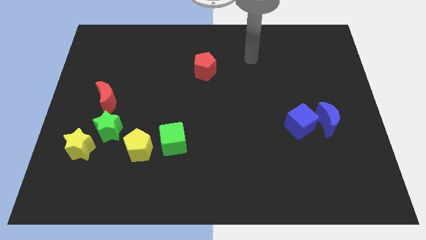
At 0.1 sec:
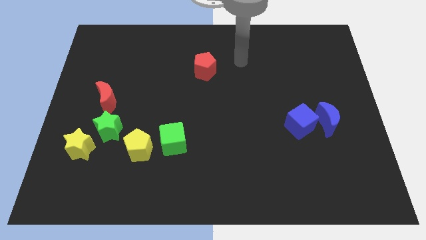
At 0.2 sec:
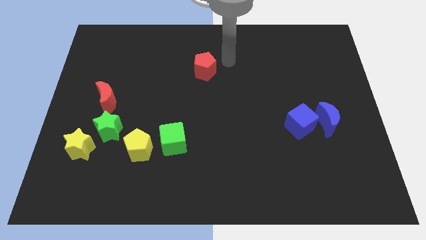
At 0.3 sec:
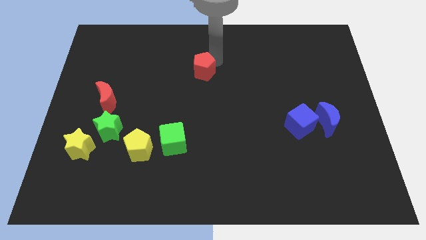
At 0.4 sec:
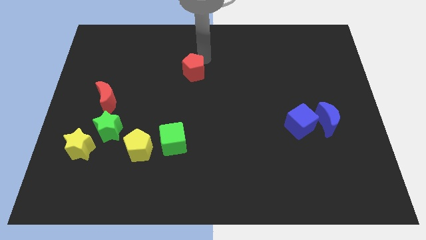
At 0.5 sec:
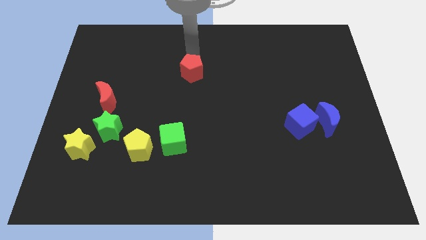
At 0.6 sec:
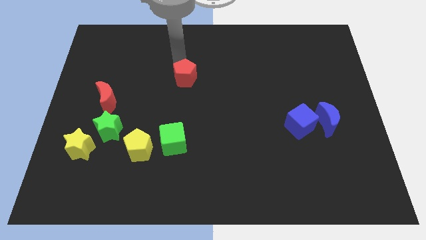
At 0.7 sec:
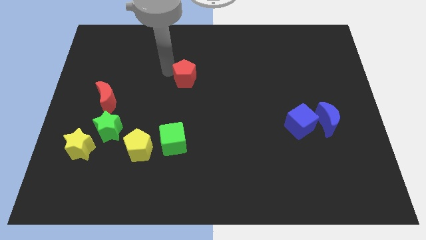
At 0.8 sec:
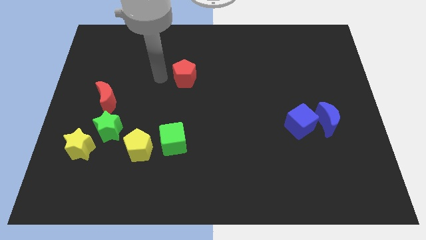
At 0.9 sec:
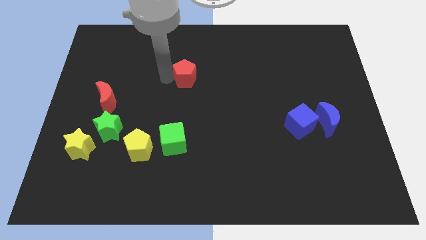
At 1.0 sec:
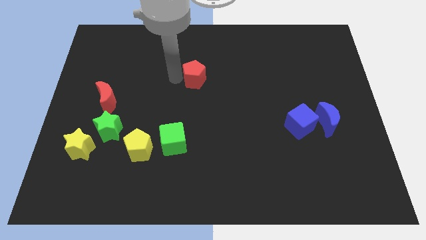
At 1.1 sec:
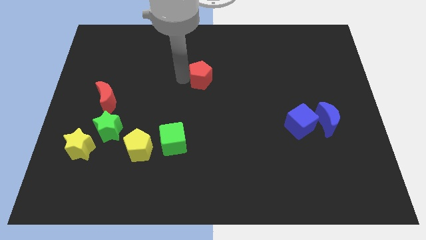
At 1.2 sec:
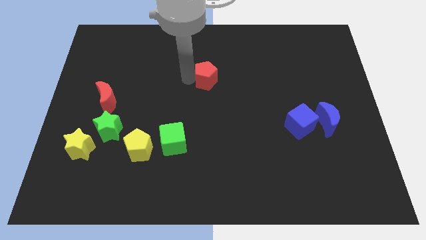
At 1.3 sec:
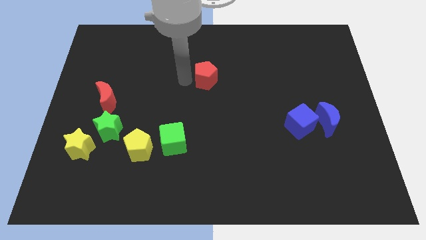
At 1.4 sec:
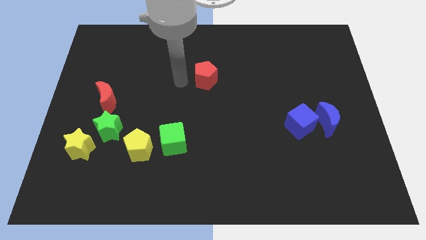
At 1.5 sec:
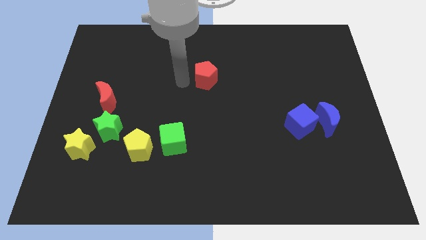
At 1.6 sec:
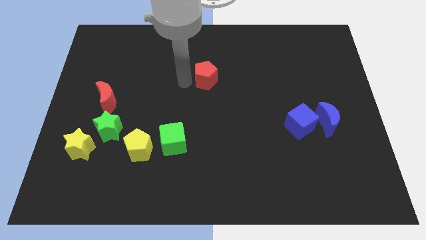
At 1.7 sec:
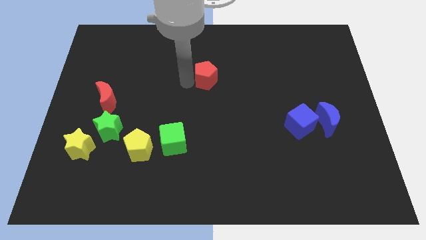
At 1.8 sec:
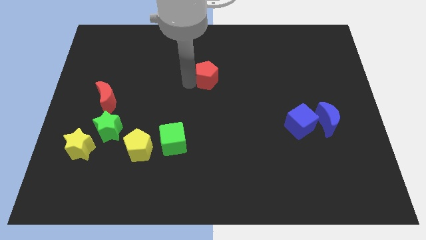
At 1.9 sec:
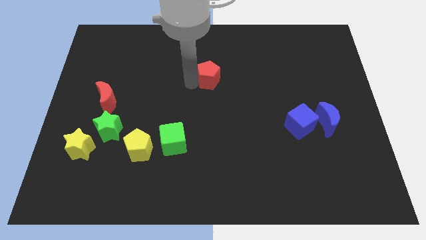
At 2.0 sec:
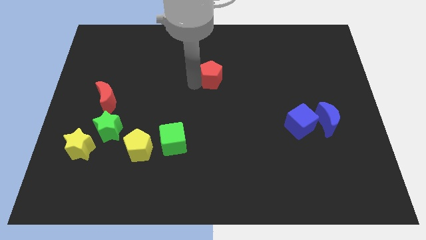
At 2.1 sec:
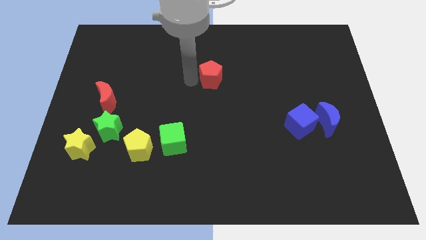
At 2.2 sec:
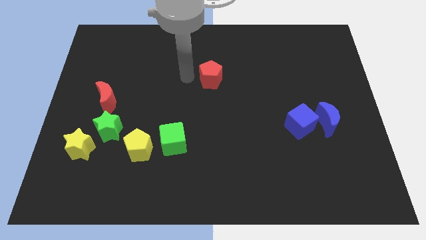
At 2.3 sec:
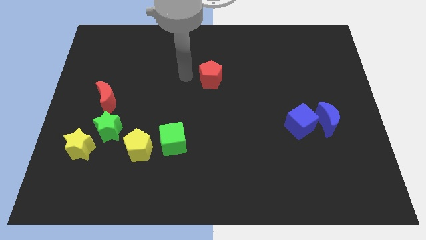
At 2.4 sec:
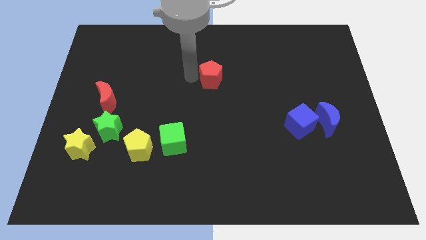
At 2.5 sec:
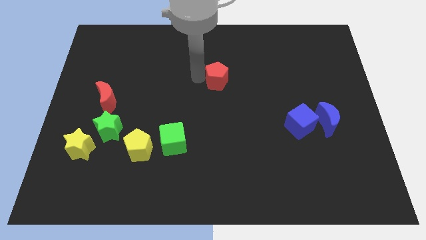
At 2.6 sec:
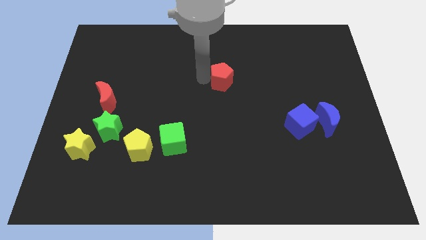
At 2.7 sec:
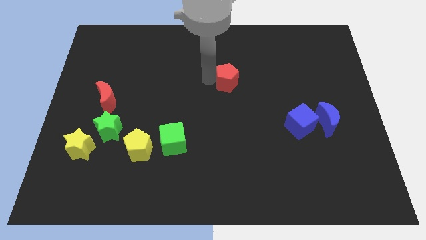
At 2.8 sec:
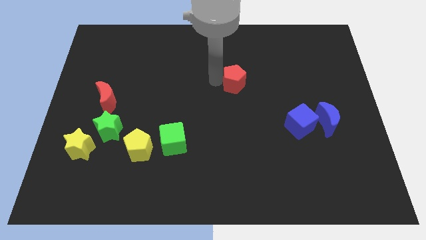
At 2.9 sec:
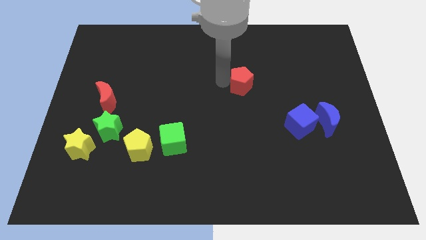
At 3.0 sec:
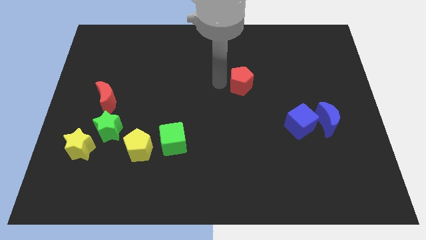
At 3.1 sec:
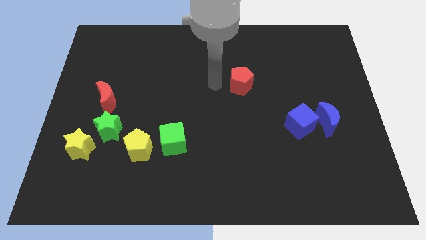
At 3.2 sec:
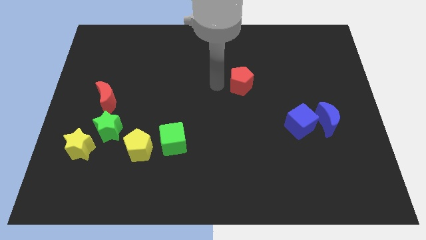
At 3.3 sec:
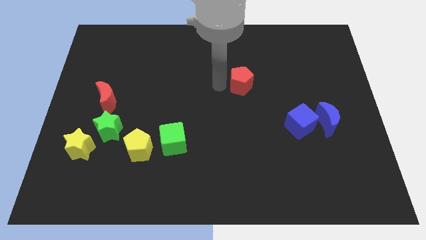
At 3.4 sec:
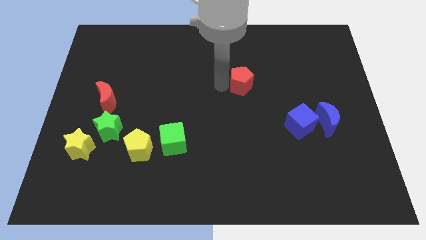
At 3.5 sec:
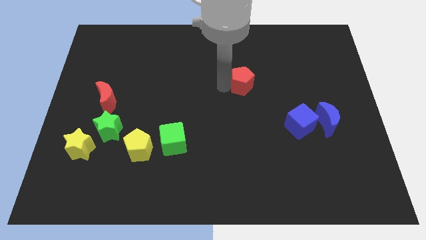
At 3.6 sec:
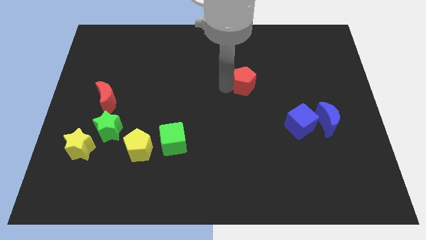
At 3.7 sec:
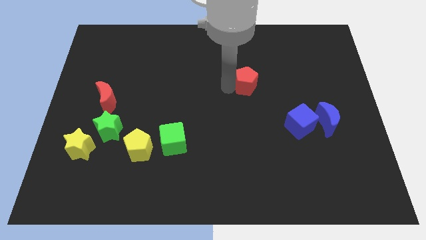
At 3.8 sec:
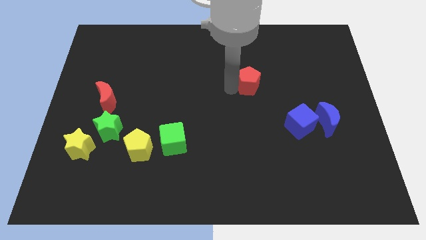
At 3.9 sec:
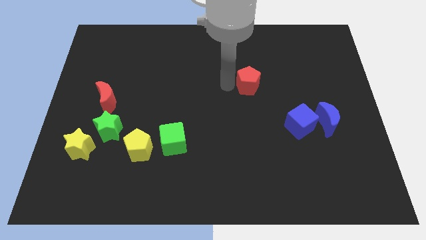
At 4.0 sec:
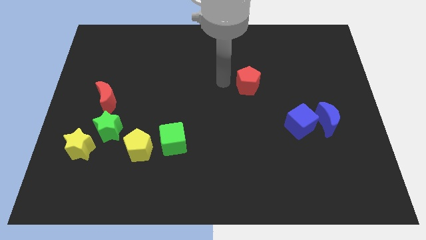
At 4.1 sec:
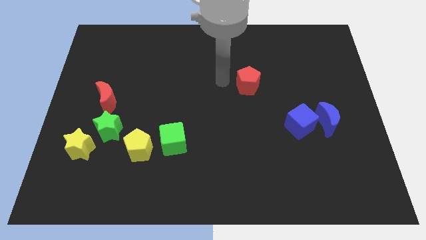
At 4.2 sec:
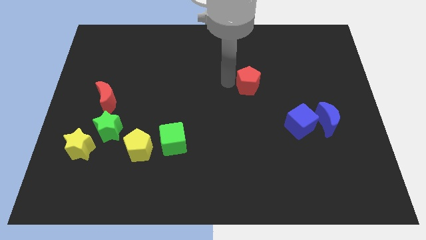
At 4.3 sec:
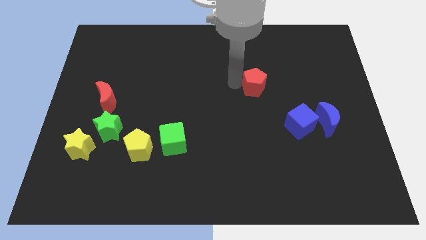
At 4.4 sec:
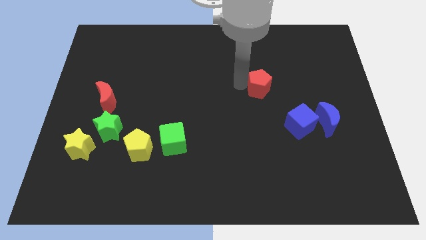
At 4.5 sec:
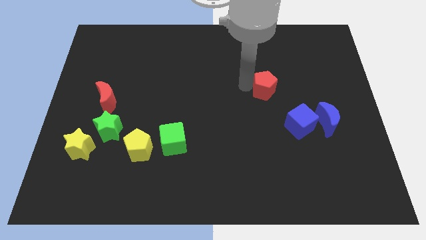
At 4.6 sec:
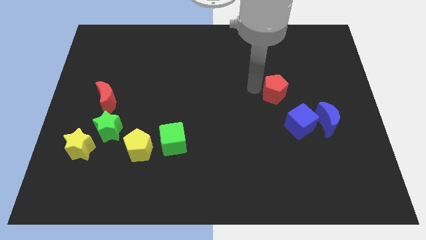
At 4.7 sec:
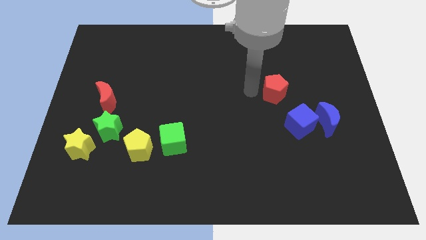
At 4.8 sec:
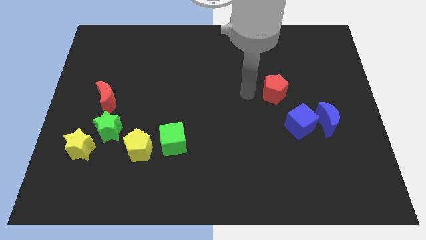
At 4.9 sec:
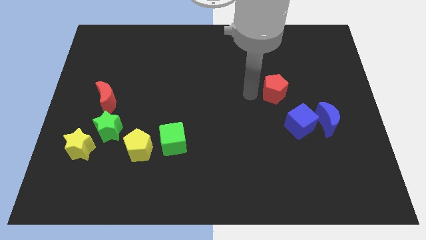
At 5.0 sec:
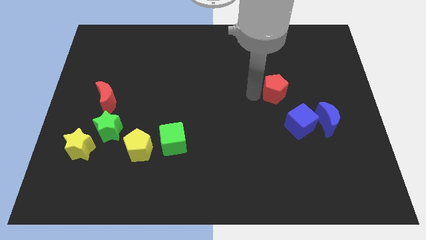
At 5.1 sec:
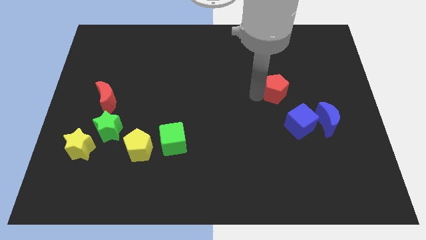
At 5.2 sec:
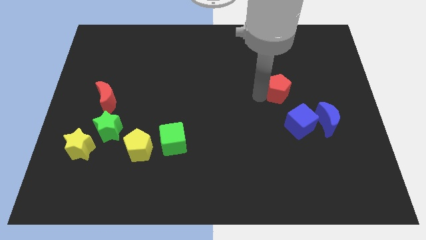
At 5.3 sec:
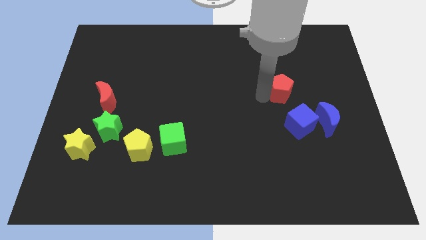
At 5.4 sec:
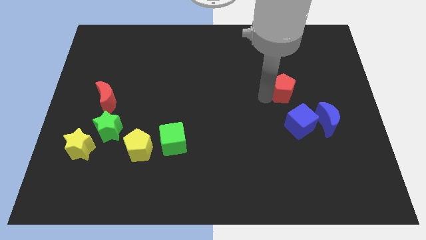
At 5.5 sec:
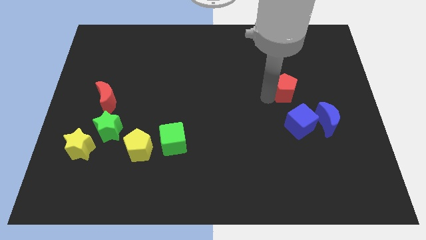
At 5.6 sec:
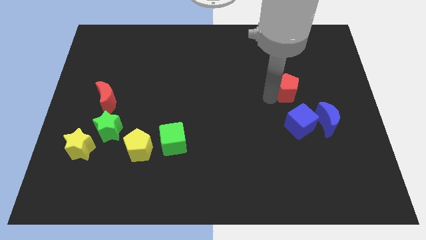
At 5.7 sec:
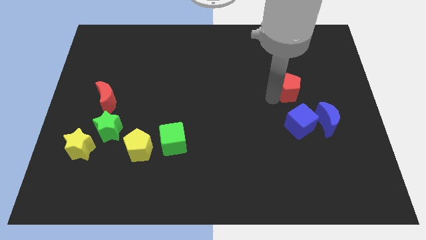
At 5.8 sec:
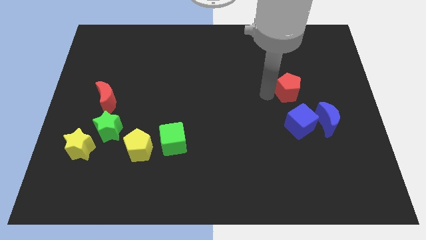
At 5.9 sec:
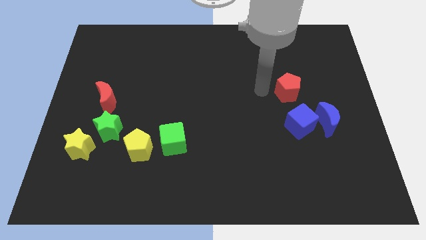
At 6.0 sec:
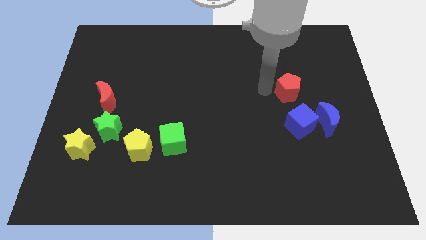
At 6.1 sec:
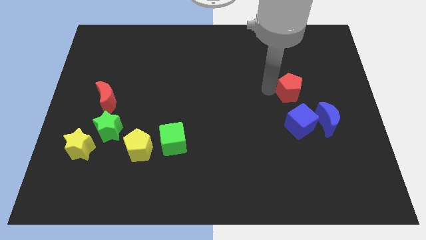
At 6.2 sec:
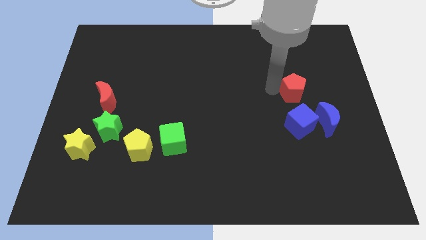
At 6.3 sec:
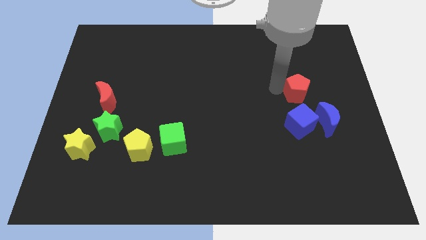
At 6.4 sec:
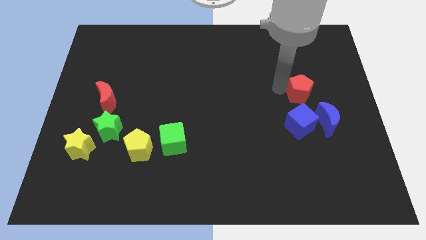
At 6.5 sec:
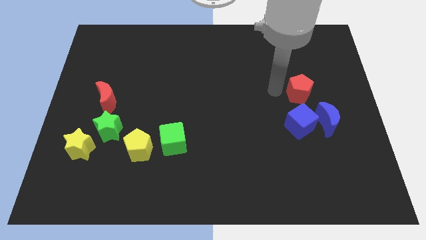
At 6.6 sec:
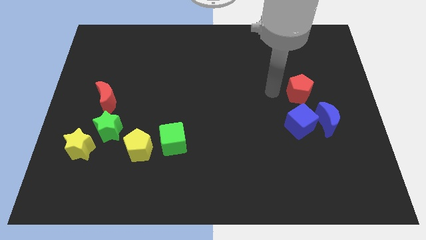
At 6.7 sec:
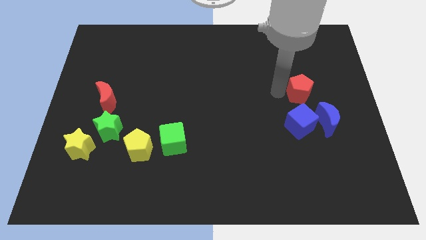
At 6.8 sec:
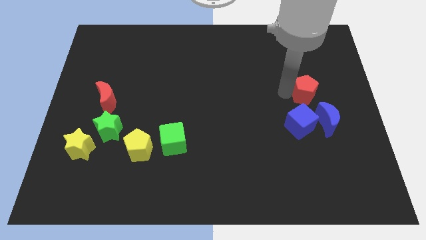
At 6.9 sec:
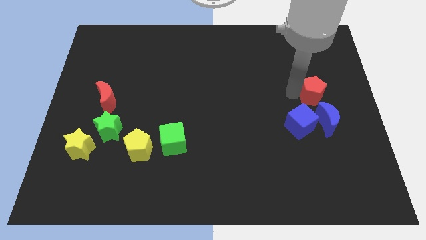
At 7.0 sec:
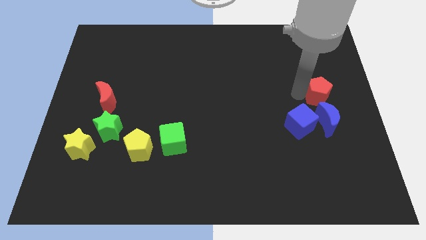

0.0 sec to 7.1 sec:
slide the red pentagon to the right side of the board
